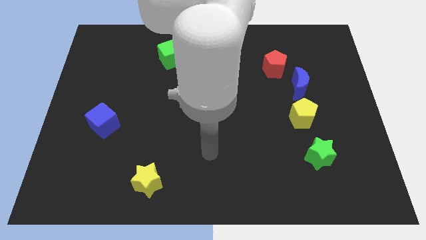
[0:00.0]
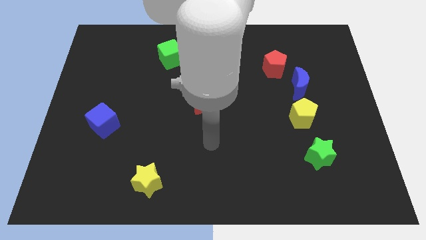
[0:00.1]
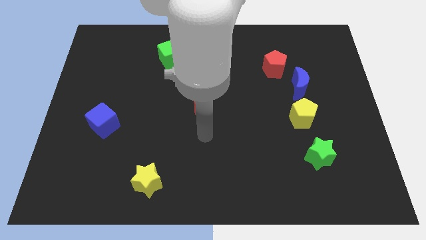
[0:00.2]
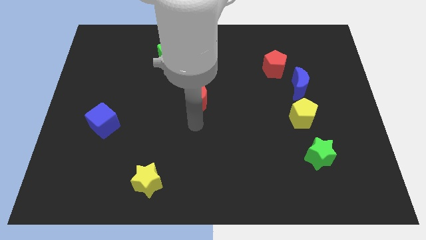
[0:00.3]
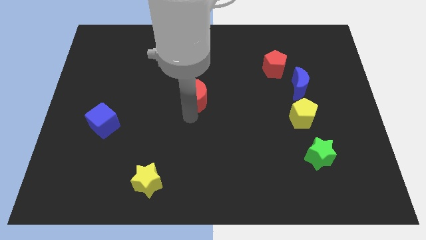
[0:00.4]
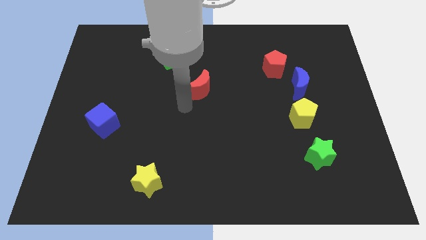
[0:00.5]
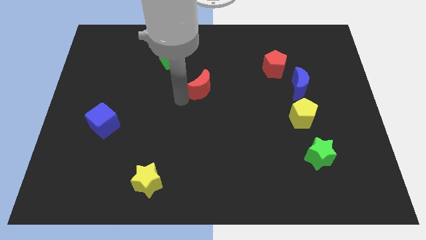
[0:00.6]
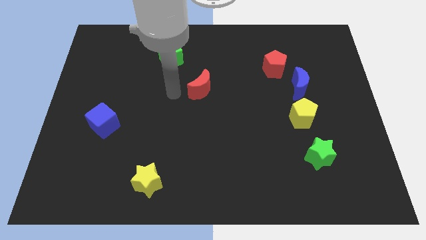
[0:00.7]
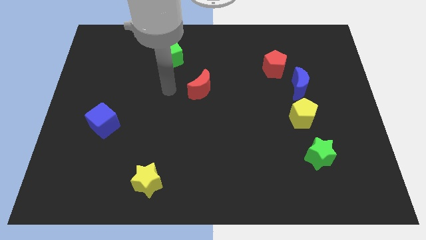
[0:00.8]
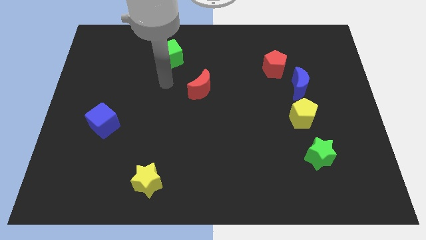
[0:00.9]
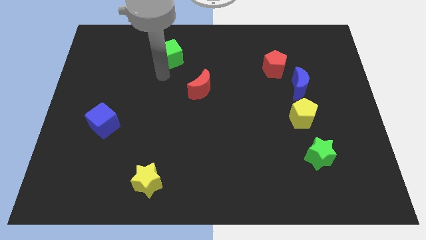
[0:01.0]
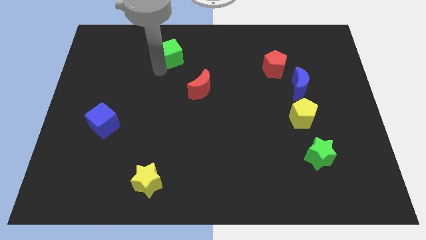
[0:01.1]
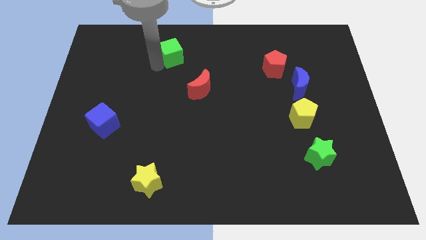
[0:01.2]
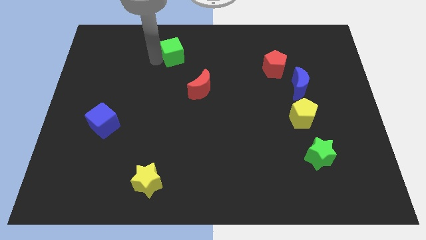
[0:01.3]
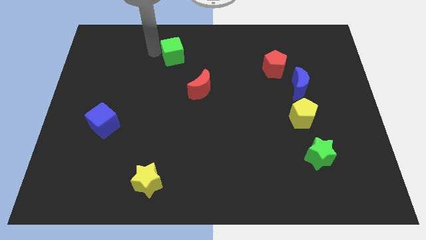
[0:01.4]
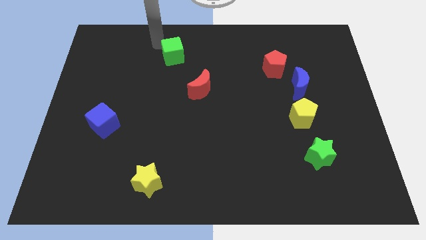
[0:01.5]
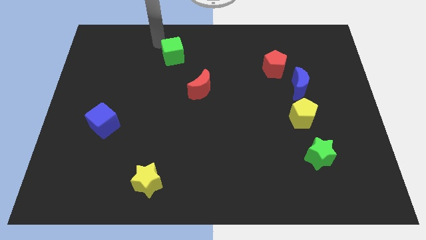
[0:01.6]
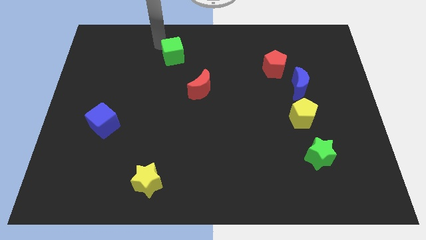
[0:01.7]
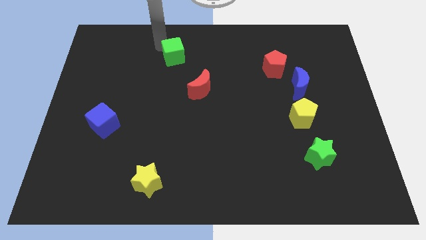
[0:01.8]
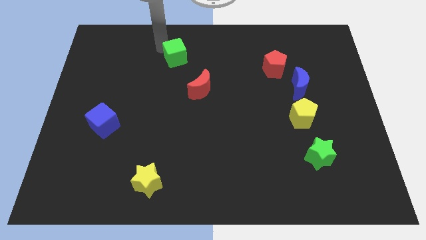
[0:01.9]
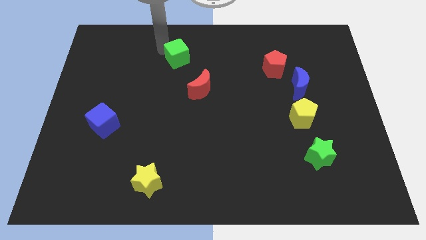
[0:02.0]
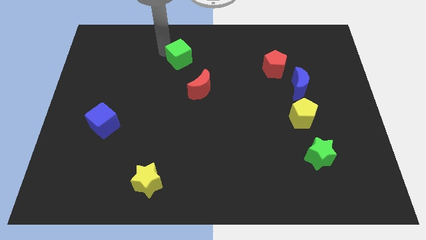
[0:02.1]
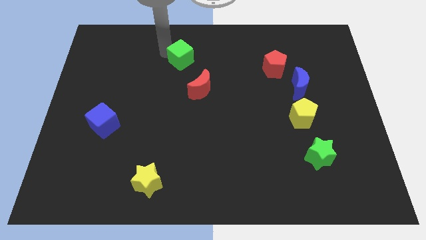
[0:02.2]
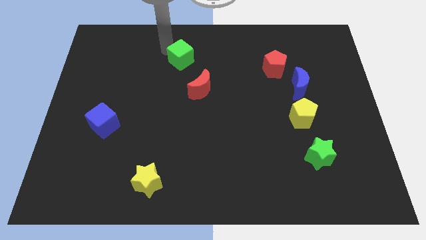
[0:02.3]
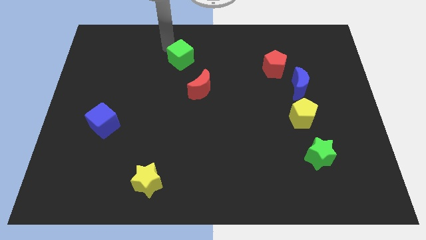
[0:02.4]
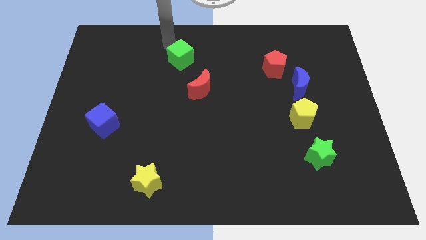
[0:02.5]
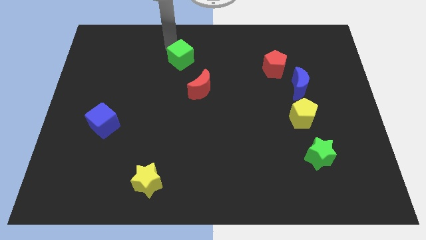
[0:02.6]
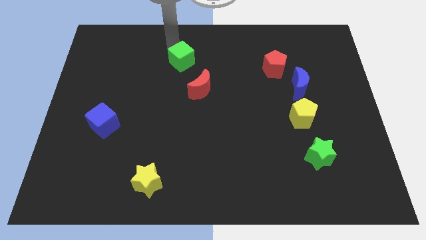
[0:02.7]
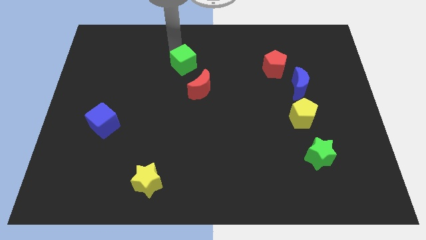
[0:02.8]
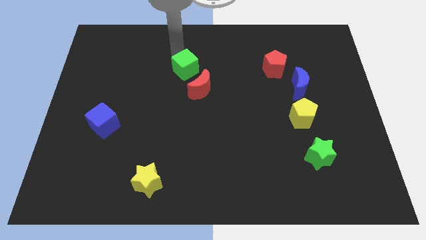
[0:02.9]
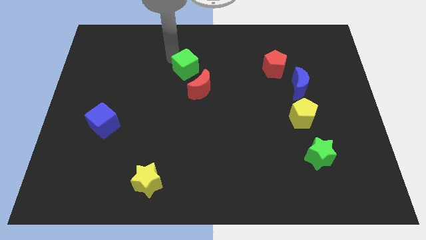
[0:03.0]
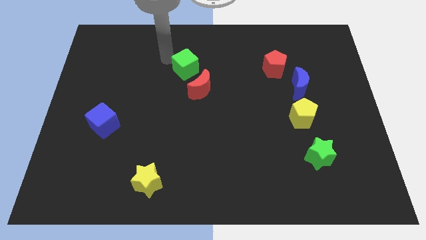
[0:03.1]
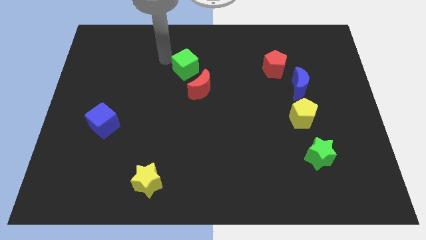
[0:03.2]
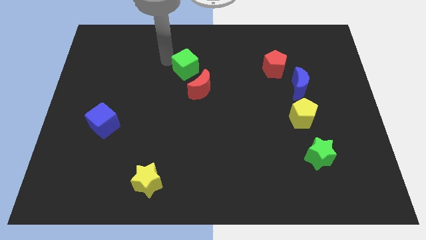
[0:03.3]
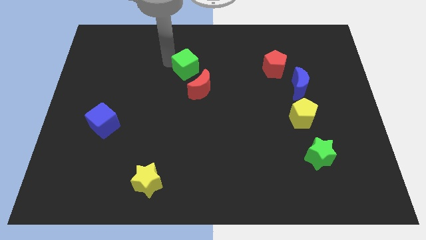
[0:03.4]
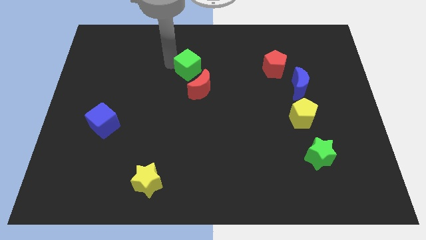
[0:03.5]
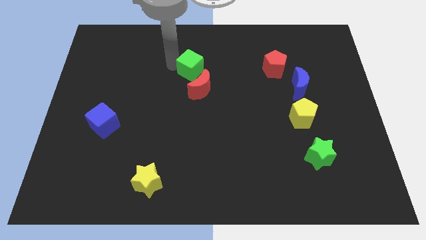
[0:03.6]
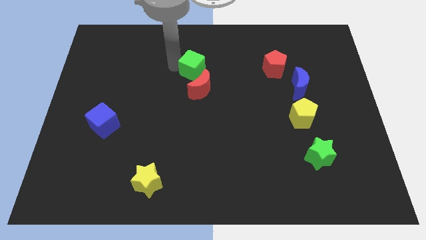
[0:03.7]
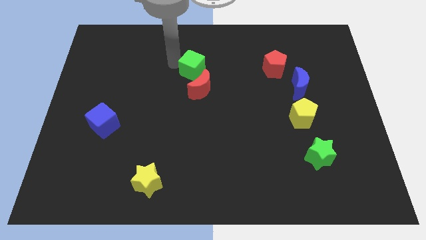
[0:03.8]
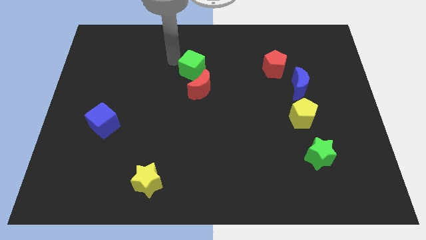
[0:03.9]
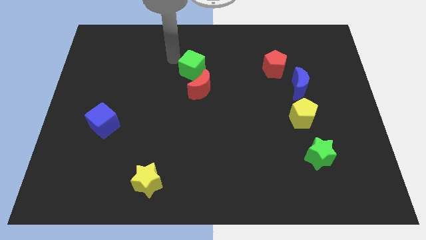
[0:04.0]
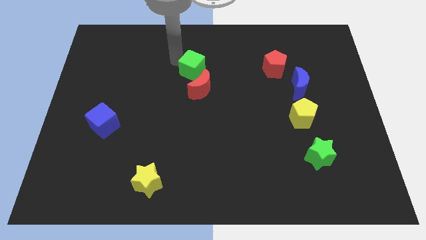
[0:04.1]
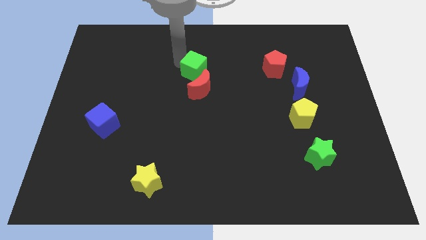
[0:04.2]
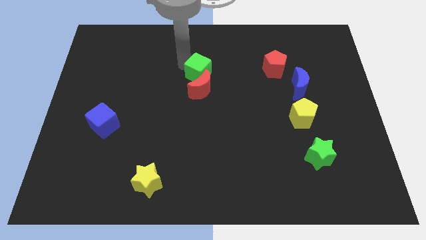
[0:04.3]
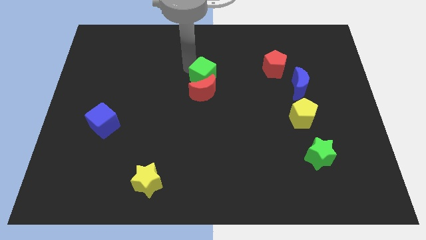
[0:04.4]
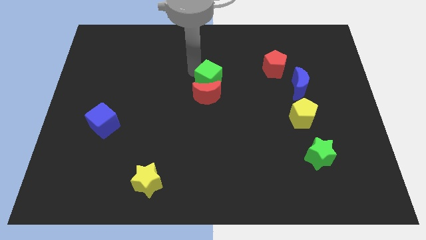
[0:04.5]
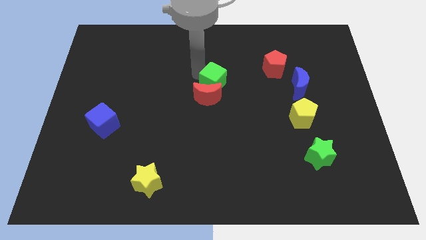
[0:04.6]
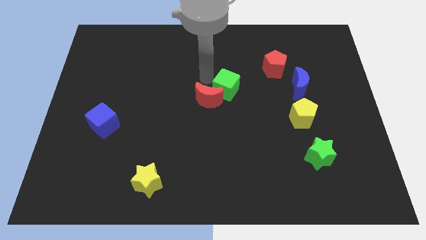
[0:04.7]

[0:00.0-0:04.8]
push the green cube right of the red moon

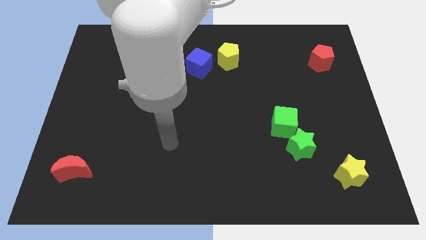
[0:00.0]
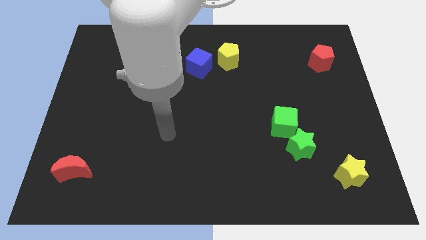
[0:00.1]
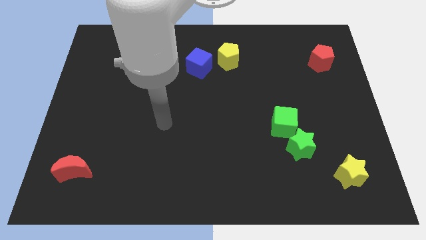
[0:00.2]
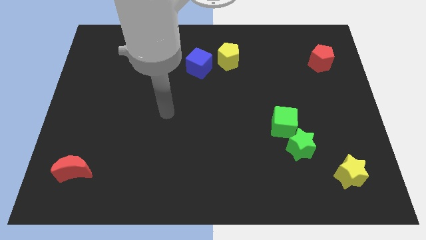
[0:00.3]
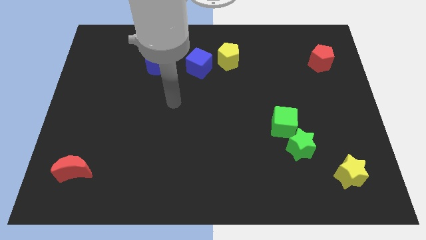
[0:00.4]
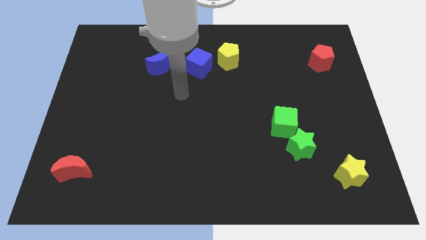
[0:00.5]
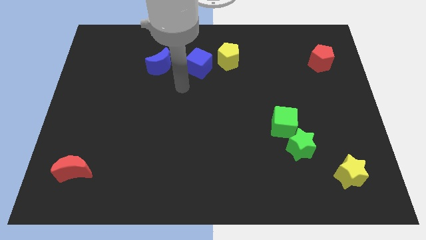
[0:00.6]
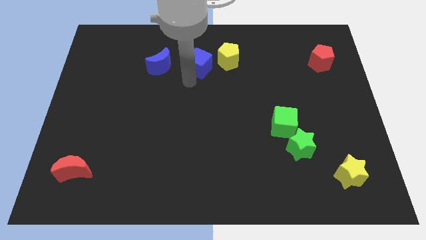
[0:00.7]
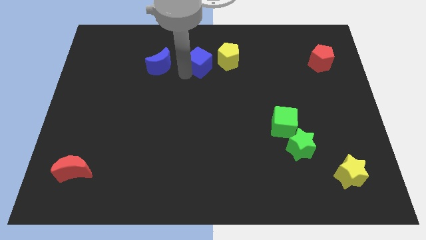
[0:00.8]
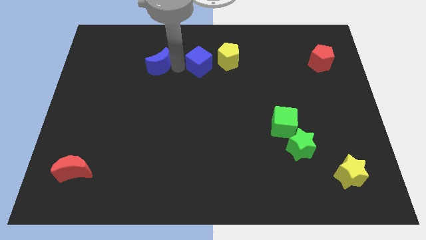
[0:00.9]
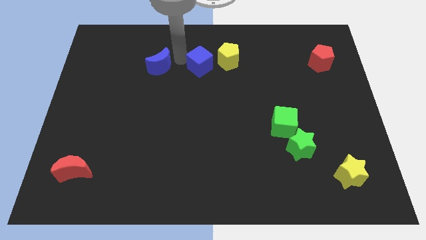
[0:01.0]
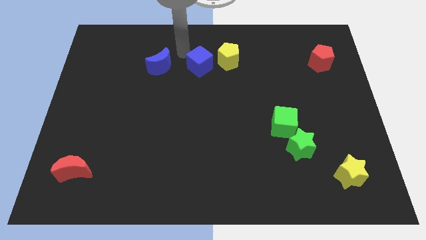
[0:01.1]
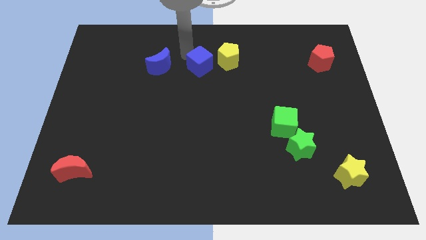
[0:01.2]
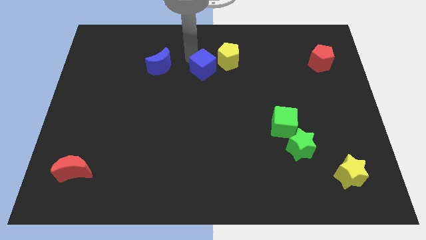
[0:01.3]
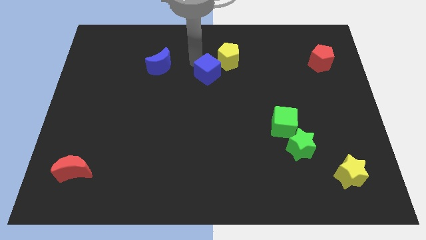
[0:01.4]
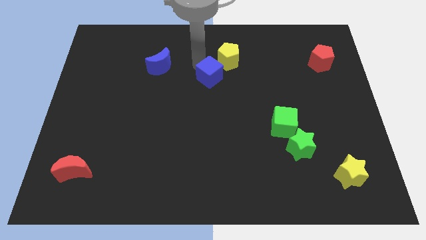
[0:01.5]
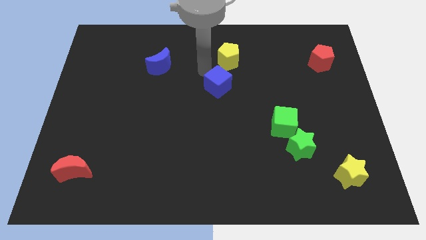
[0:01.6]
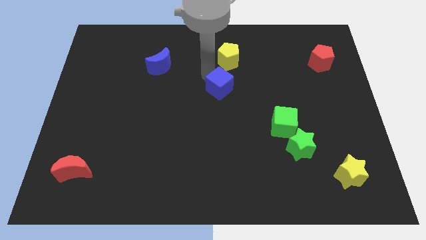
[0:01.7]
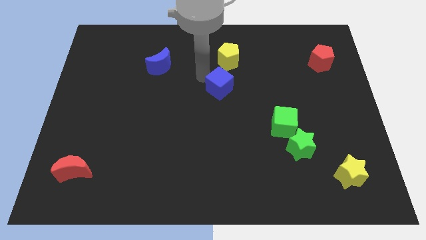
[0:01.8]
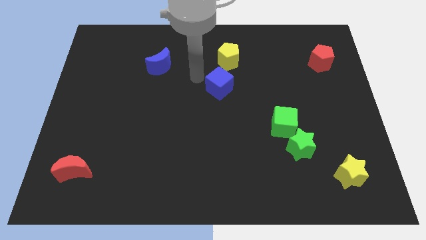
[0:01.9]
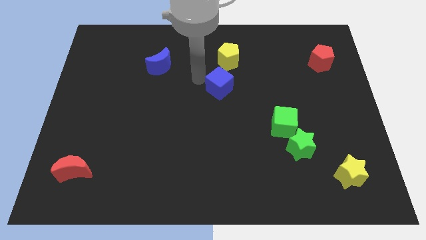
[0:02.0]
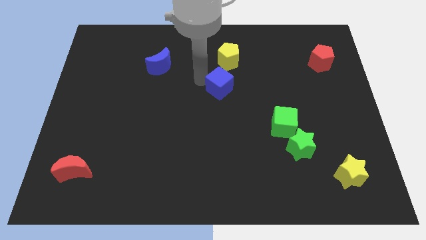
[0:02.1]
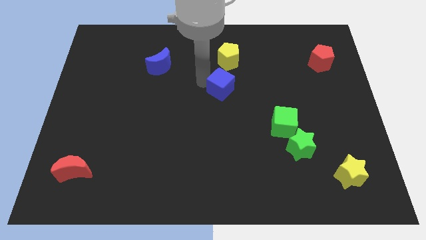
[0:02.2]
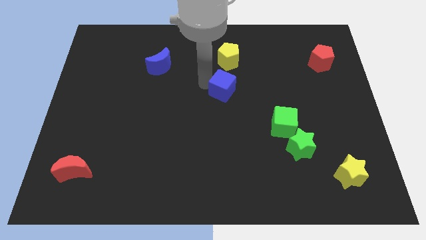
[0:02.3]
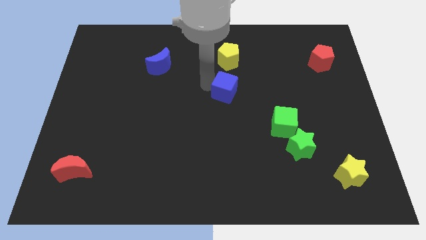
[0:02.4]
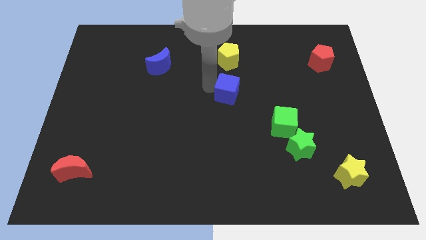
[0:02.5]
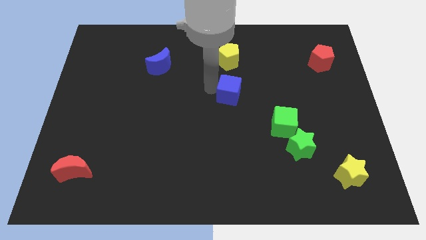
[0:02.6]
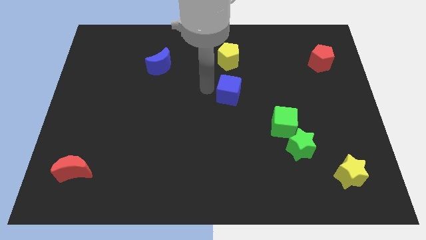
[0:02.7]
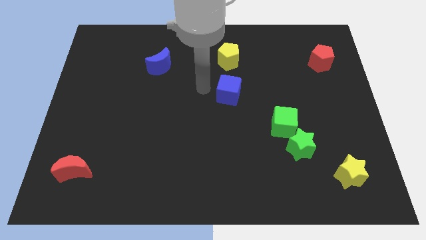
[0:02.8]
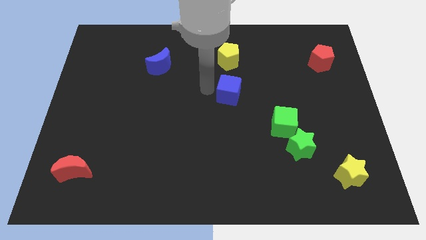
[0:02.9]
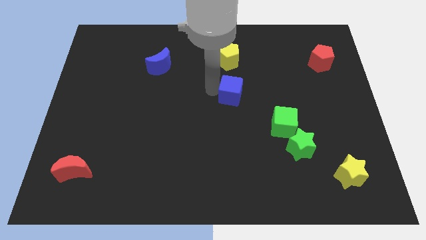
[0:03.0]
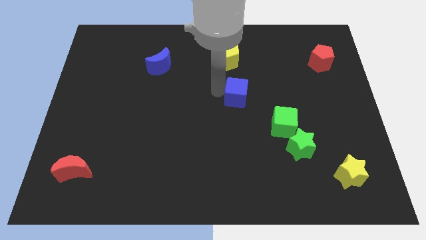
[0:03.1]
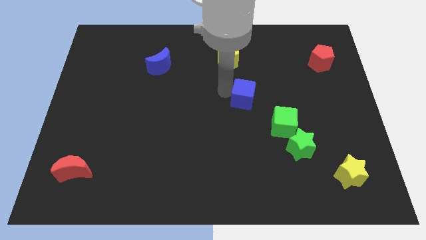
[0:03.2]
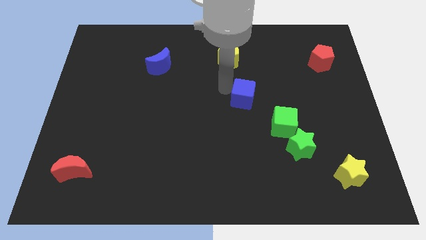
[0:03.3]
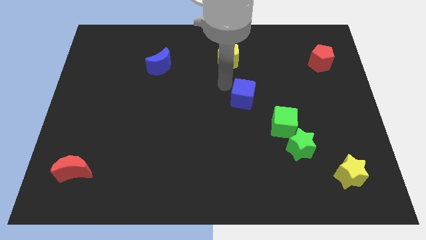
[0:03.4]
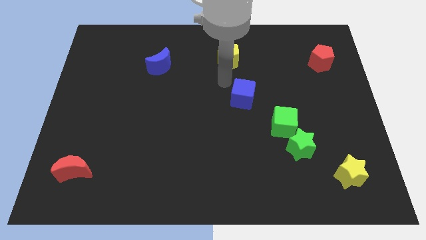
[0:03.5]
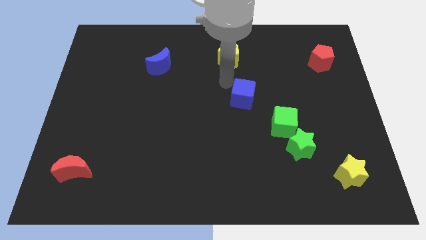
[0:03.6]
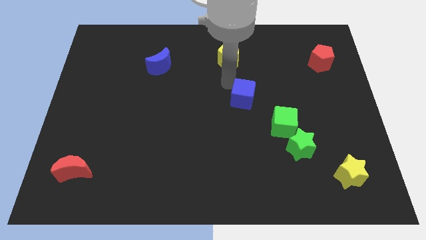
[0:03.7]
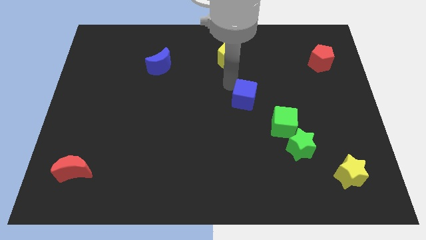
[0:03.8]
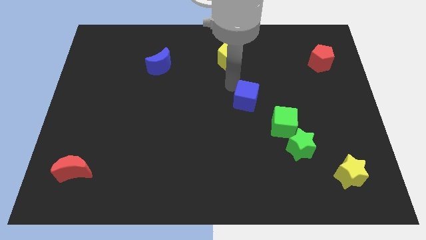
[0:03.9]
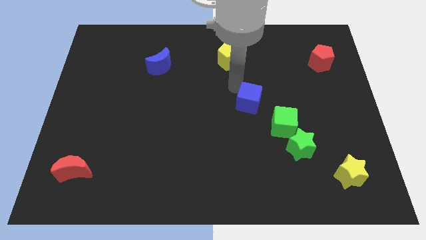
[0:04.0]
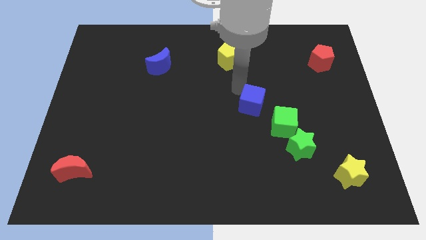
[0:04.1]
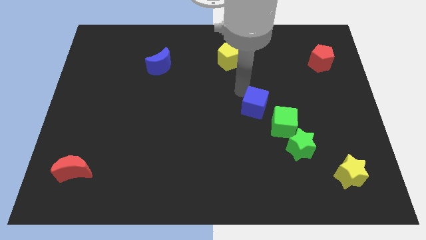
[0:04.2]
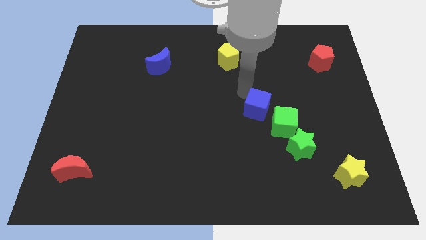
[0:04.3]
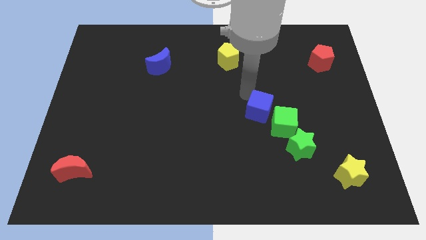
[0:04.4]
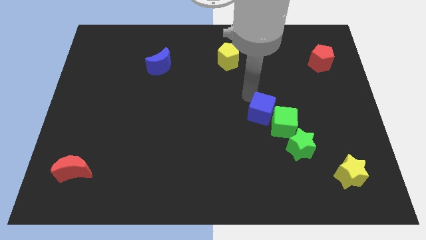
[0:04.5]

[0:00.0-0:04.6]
push the blue cube to the top left of the green star
